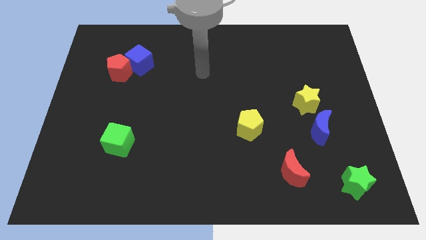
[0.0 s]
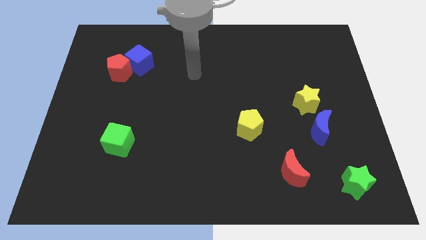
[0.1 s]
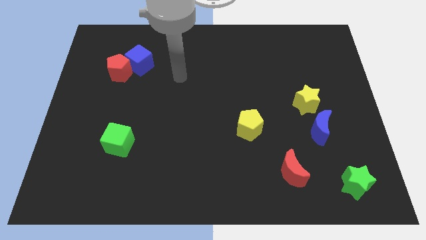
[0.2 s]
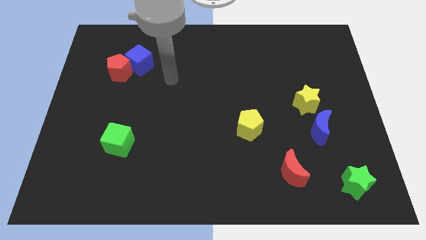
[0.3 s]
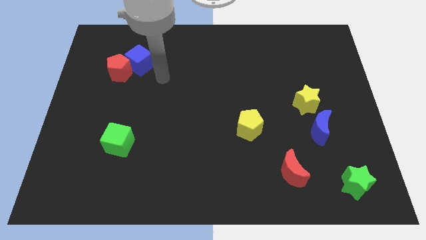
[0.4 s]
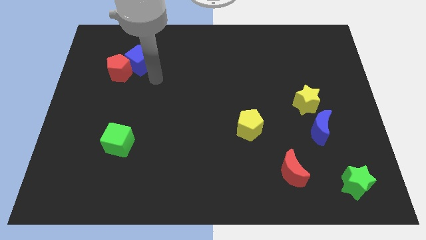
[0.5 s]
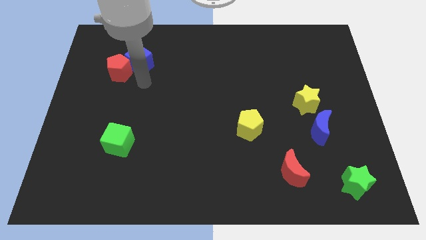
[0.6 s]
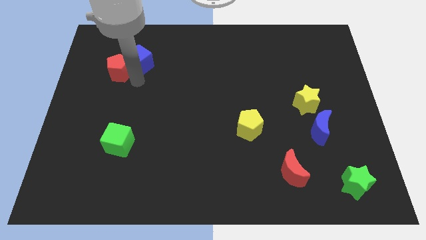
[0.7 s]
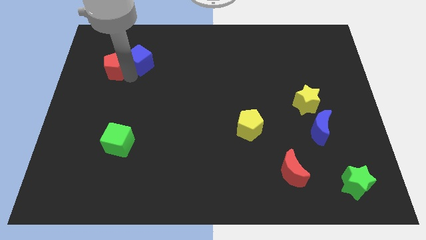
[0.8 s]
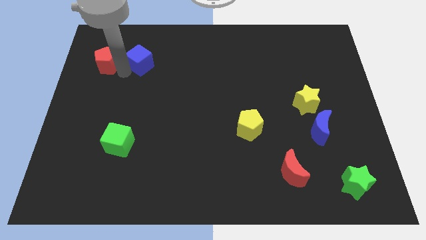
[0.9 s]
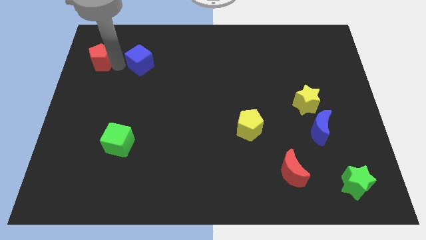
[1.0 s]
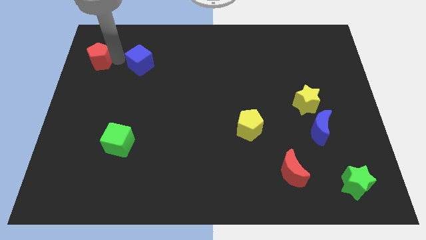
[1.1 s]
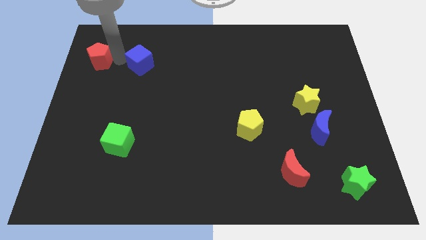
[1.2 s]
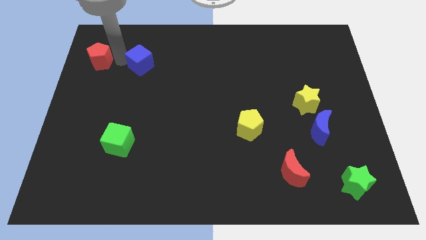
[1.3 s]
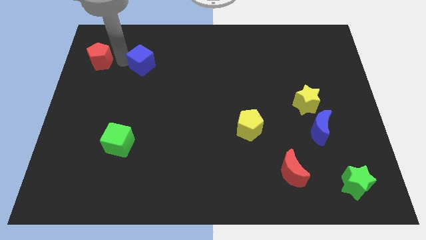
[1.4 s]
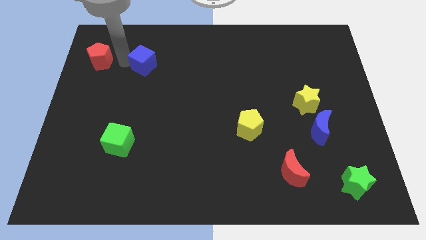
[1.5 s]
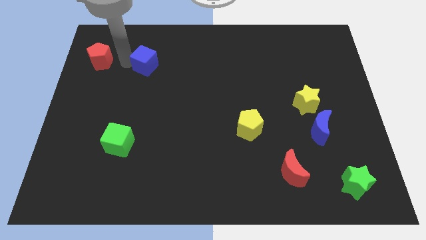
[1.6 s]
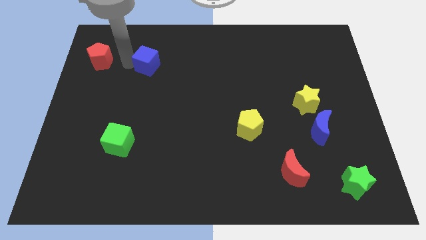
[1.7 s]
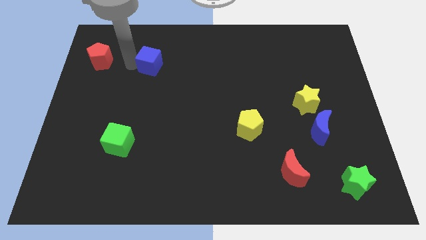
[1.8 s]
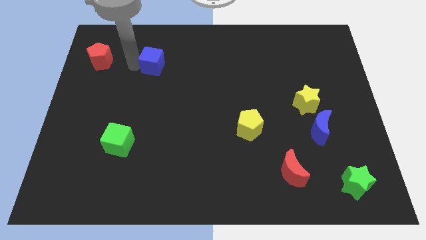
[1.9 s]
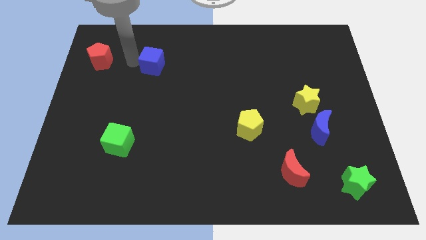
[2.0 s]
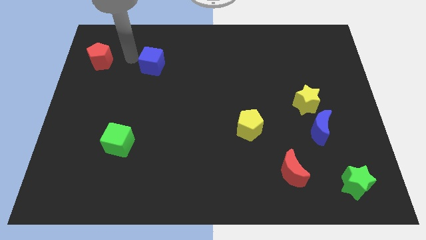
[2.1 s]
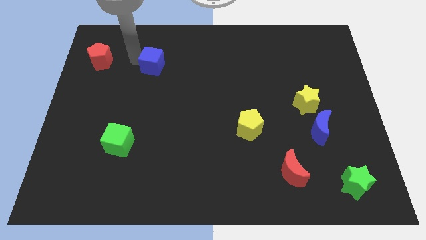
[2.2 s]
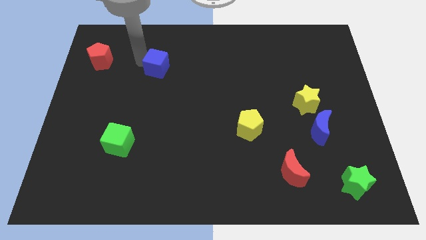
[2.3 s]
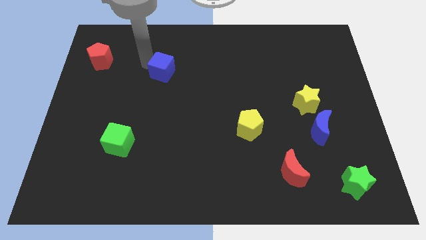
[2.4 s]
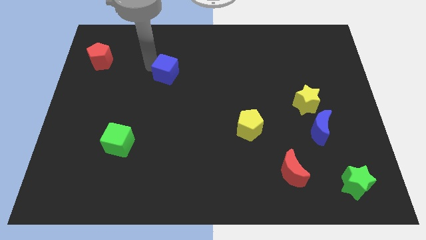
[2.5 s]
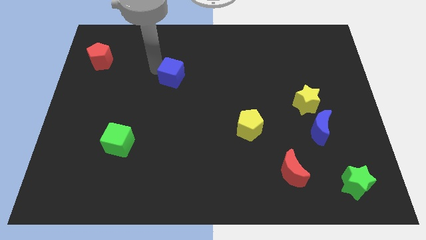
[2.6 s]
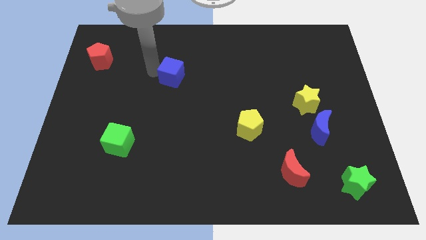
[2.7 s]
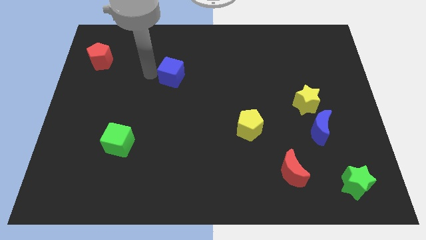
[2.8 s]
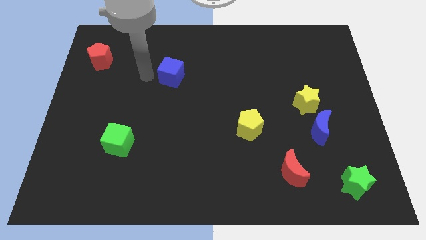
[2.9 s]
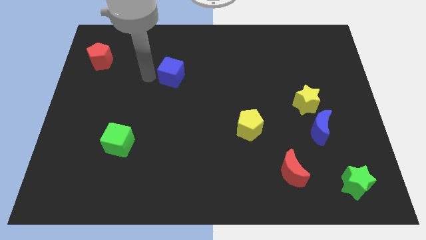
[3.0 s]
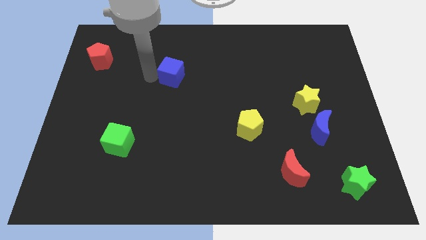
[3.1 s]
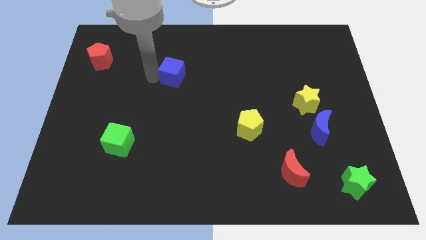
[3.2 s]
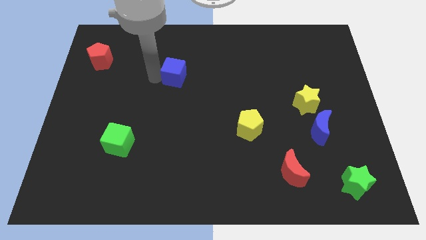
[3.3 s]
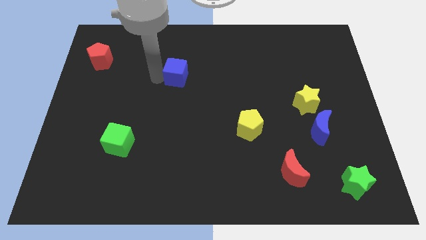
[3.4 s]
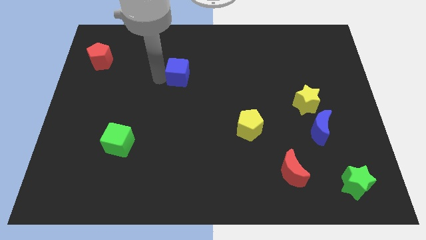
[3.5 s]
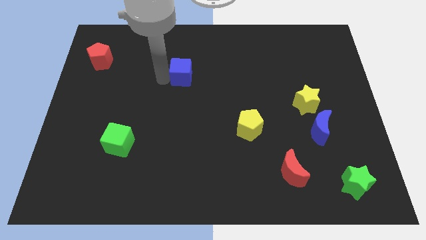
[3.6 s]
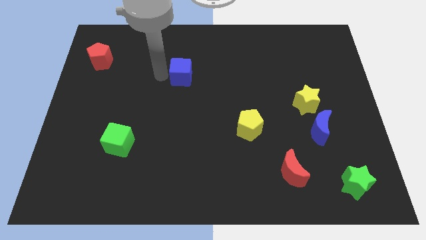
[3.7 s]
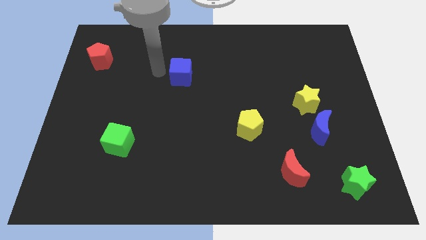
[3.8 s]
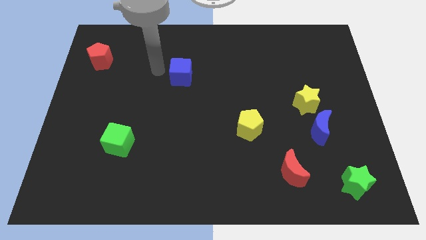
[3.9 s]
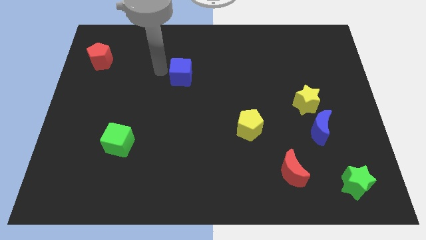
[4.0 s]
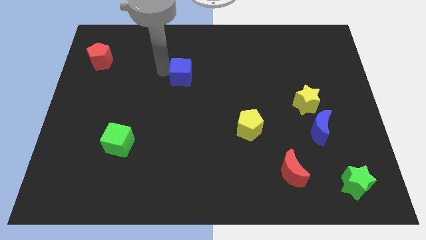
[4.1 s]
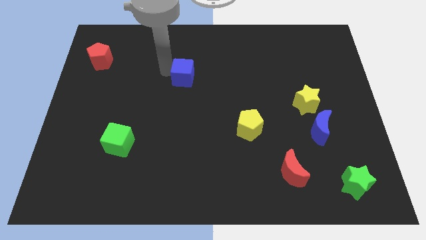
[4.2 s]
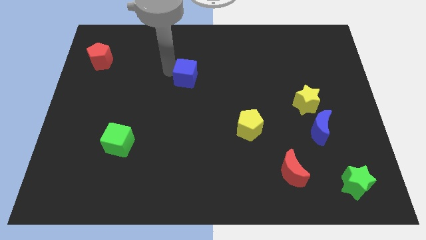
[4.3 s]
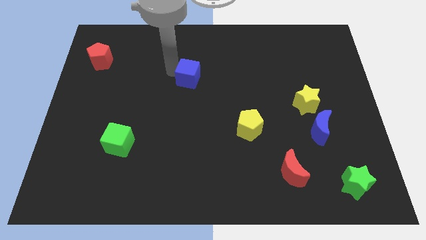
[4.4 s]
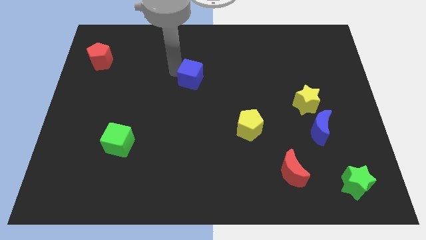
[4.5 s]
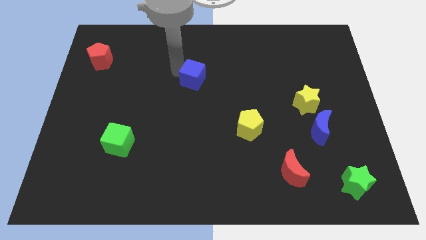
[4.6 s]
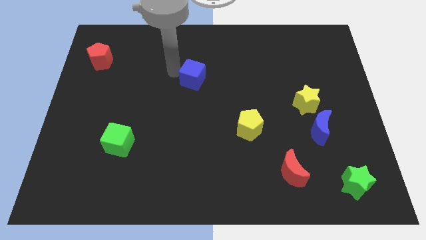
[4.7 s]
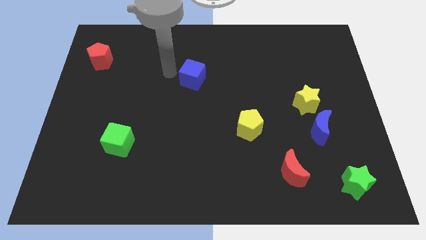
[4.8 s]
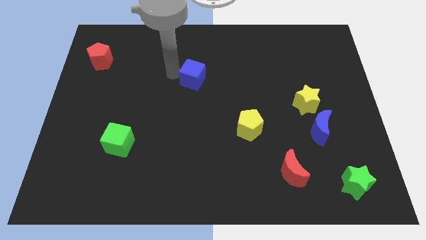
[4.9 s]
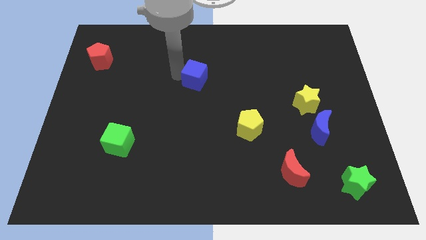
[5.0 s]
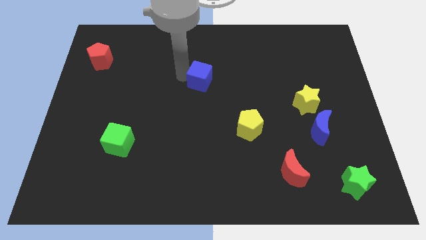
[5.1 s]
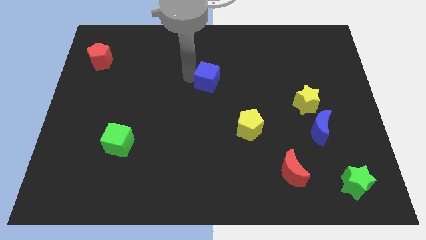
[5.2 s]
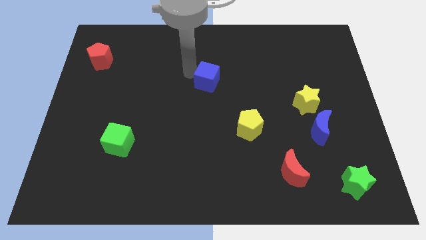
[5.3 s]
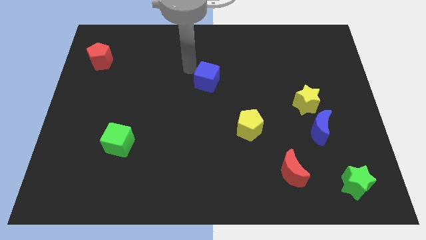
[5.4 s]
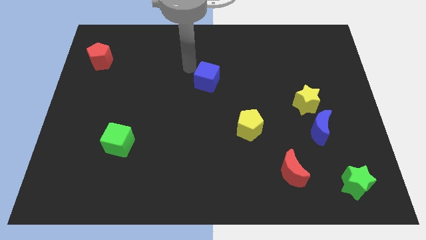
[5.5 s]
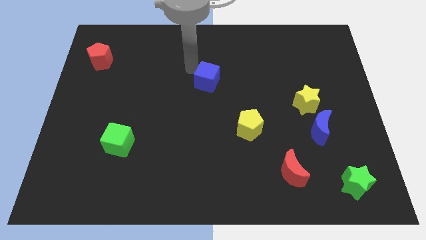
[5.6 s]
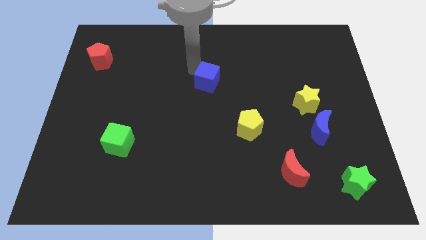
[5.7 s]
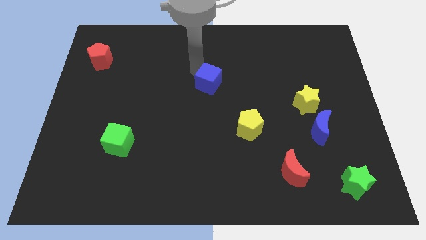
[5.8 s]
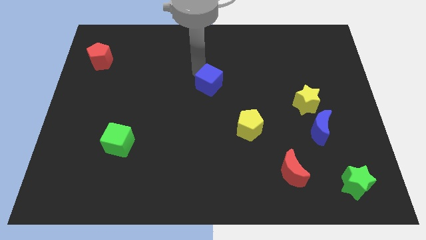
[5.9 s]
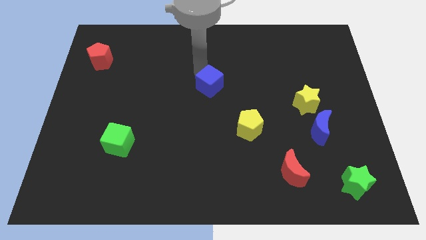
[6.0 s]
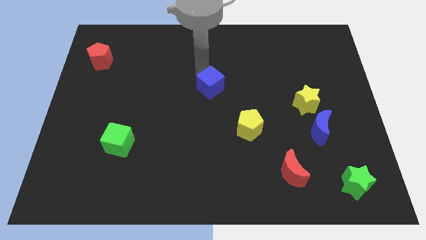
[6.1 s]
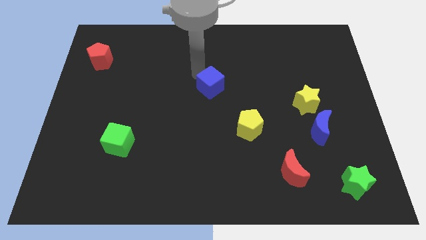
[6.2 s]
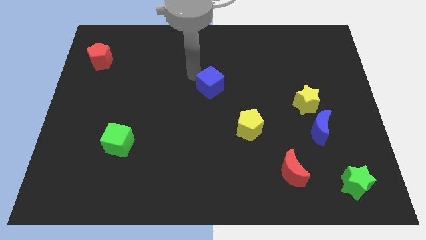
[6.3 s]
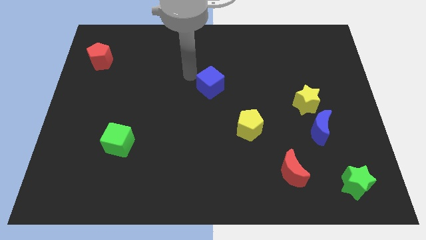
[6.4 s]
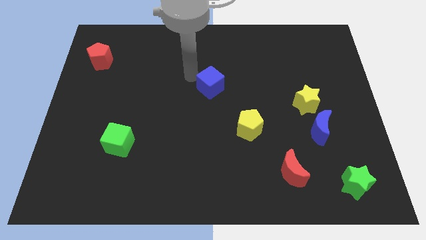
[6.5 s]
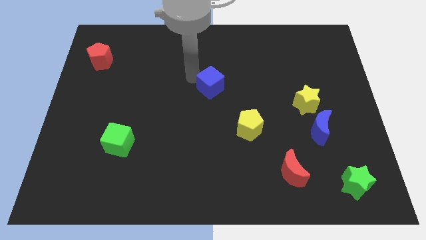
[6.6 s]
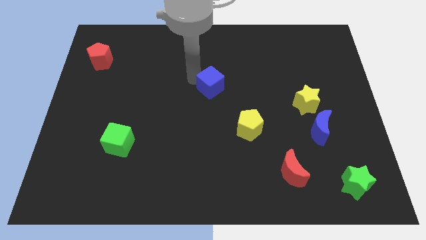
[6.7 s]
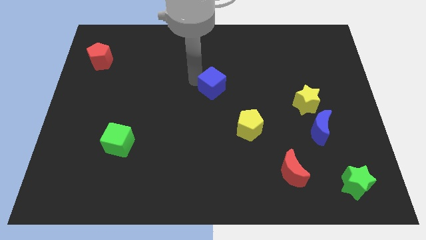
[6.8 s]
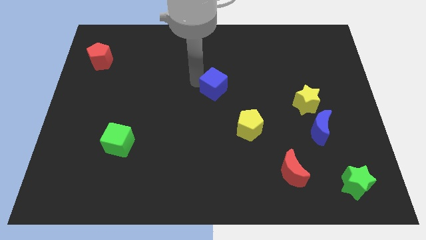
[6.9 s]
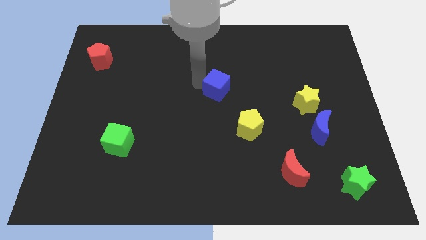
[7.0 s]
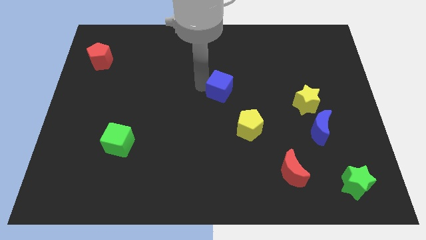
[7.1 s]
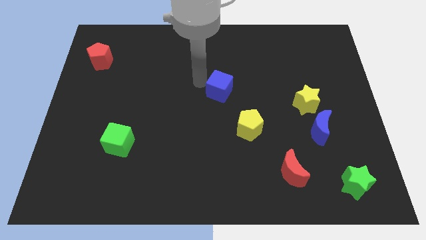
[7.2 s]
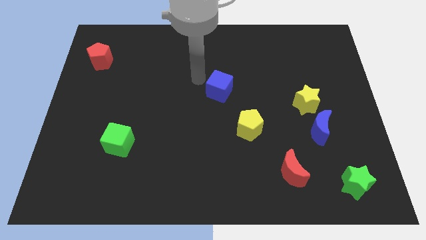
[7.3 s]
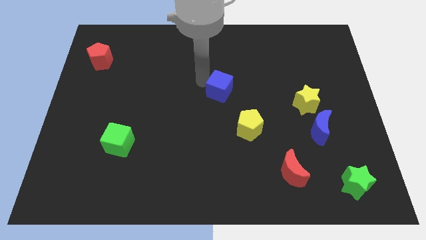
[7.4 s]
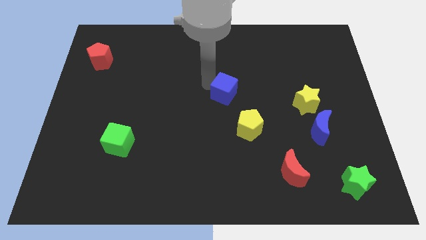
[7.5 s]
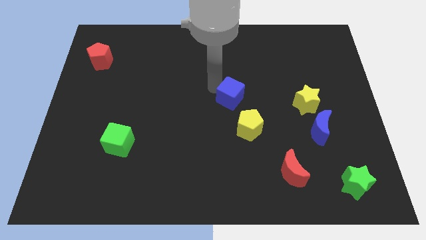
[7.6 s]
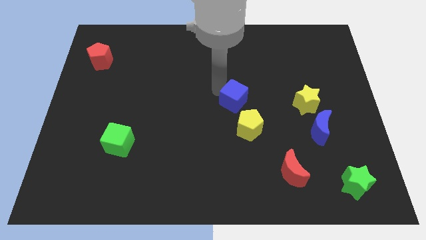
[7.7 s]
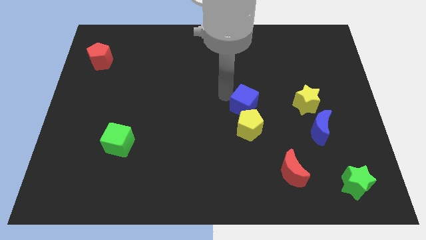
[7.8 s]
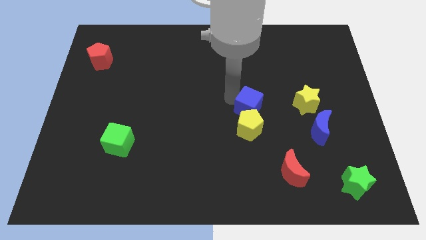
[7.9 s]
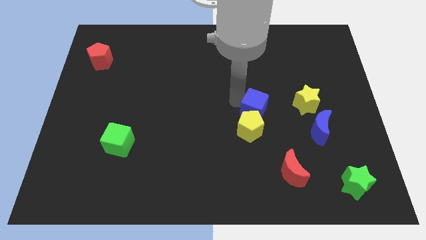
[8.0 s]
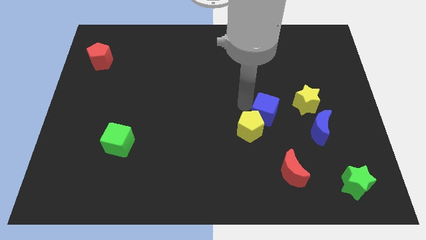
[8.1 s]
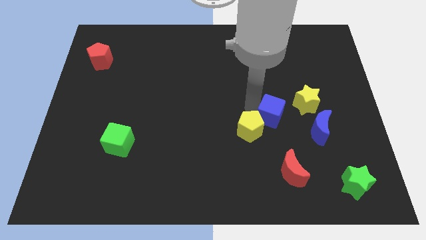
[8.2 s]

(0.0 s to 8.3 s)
slide the blue cube to the bottom left of the yellow star
